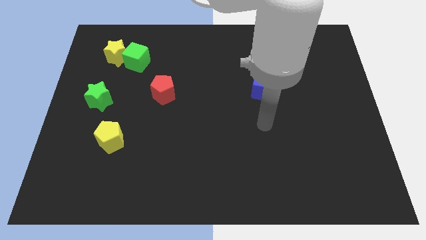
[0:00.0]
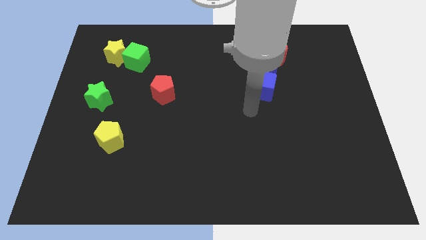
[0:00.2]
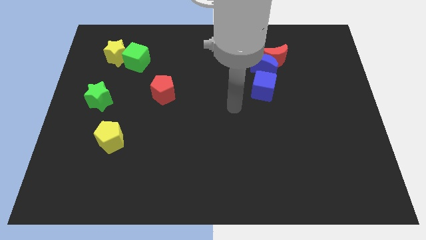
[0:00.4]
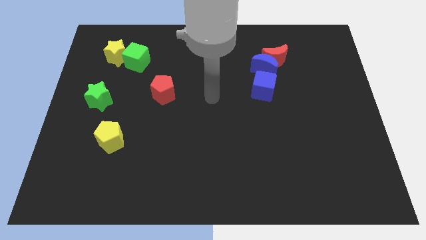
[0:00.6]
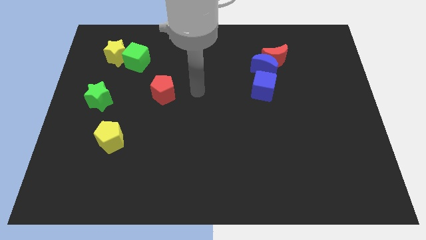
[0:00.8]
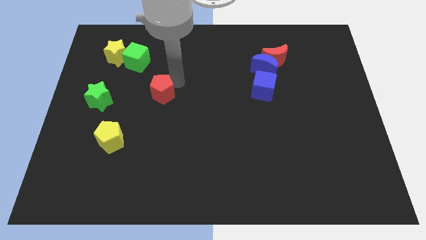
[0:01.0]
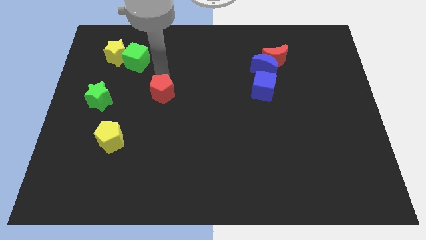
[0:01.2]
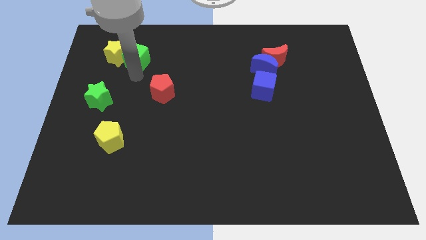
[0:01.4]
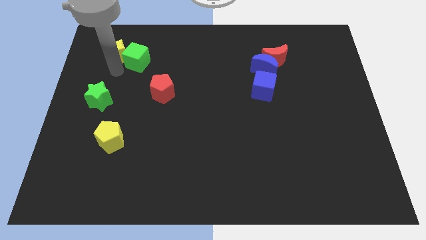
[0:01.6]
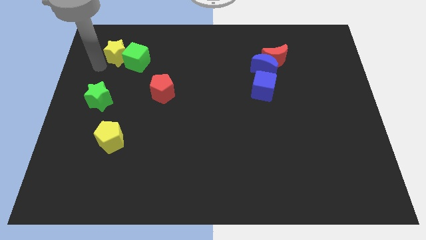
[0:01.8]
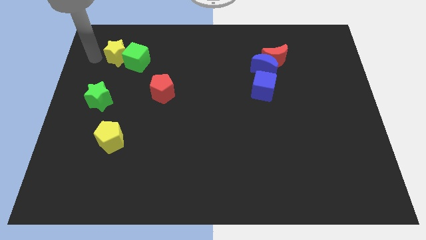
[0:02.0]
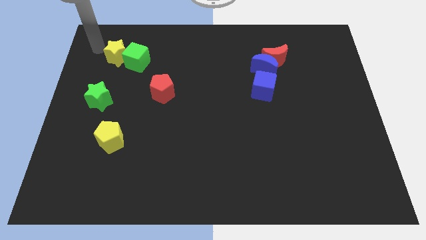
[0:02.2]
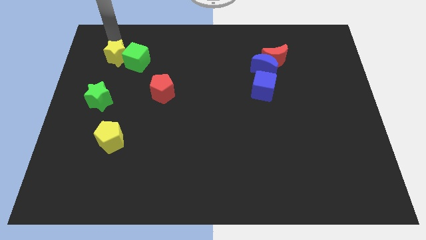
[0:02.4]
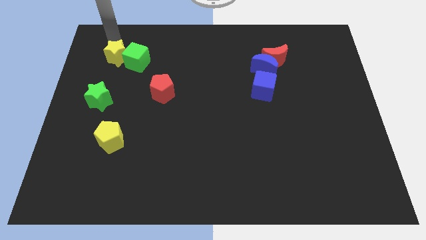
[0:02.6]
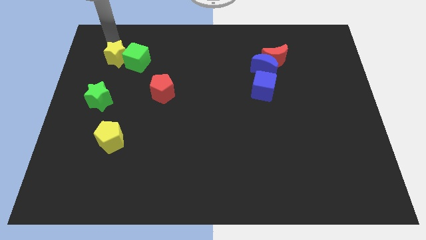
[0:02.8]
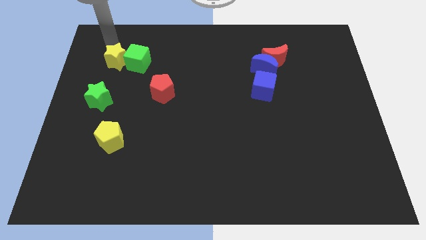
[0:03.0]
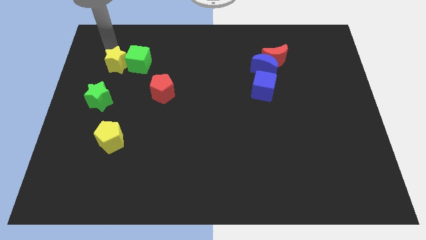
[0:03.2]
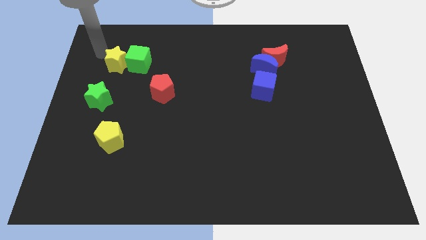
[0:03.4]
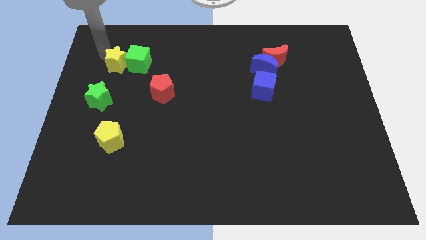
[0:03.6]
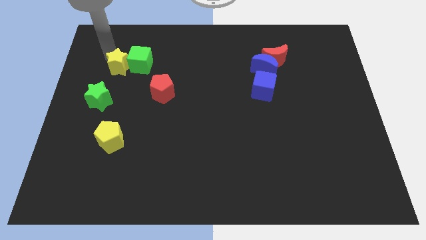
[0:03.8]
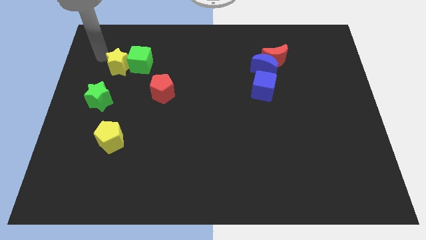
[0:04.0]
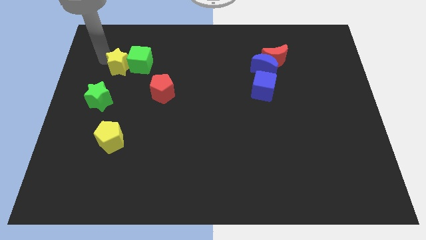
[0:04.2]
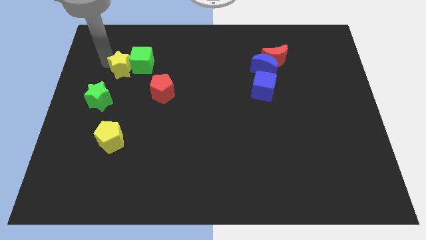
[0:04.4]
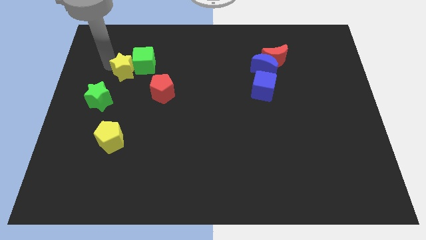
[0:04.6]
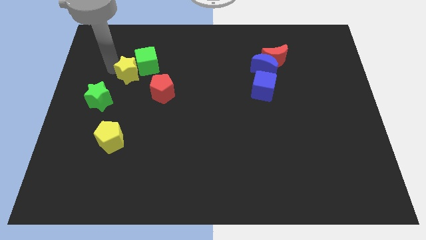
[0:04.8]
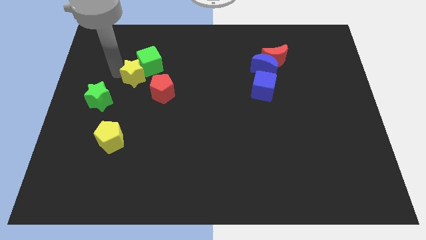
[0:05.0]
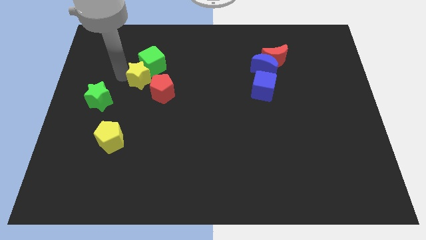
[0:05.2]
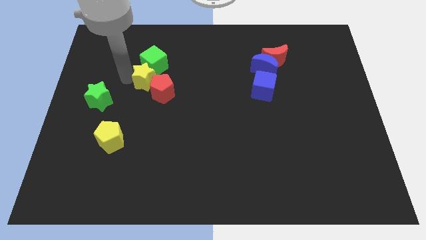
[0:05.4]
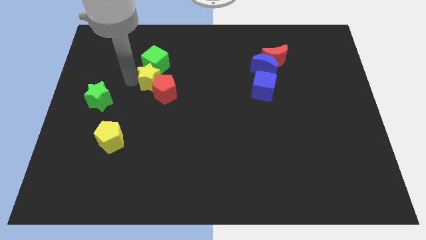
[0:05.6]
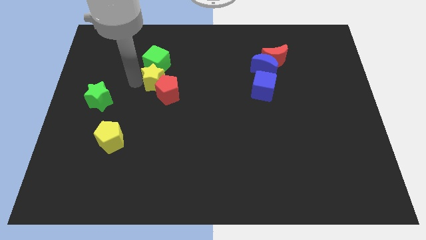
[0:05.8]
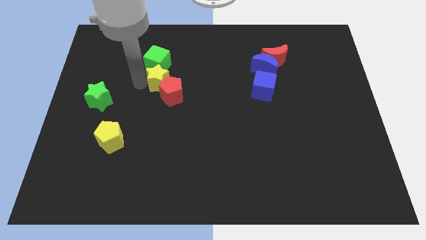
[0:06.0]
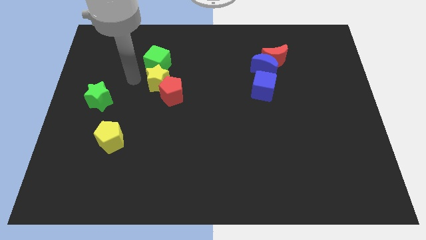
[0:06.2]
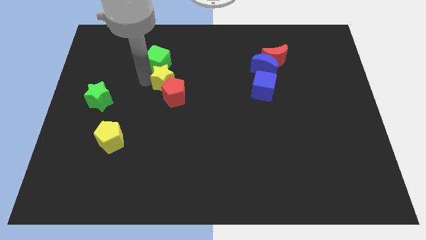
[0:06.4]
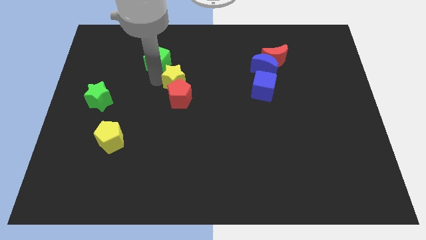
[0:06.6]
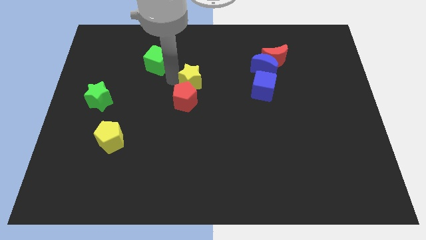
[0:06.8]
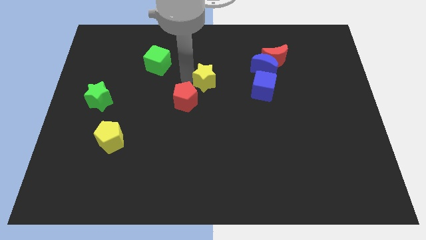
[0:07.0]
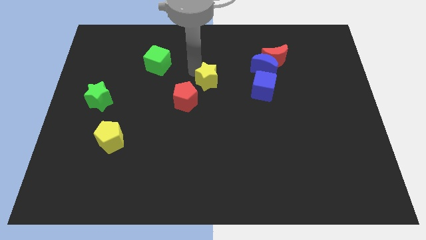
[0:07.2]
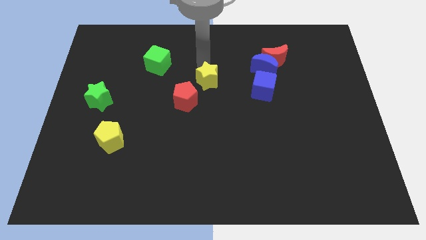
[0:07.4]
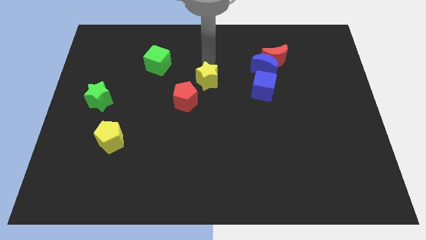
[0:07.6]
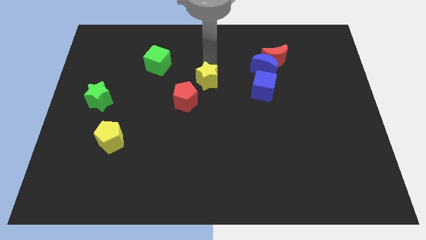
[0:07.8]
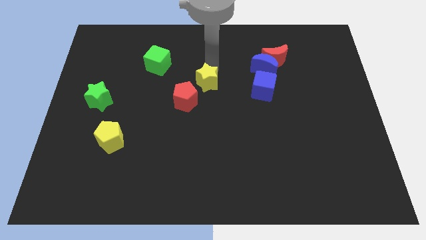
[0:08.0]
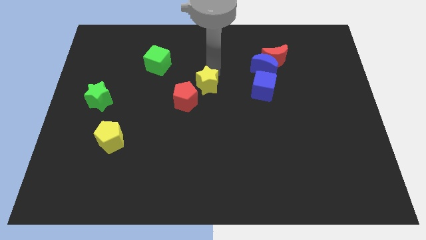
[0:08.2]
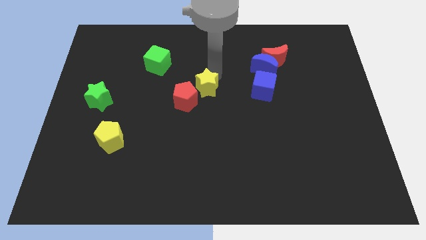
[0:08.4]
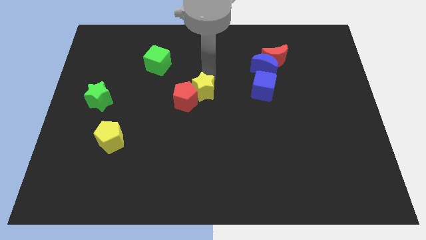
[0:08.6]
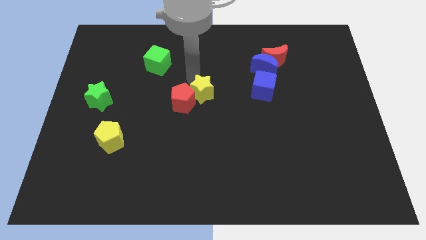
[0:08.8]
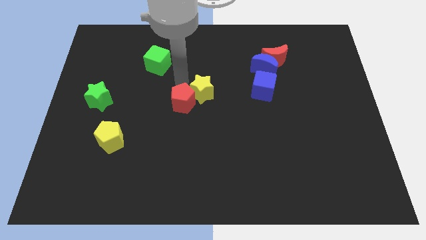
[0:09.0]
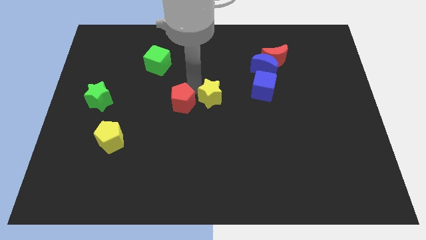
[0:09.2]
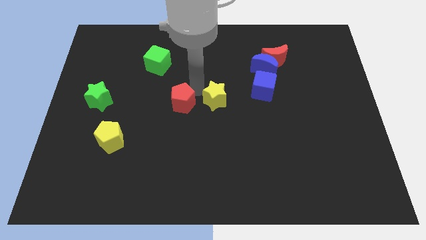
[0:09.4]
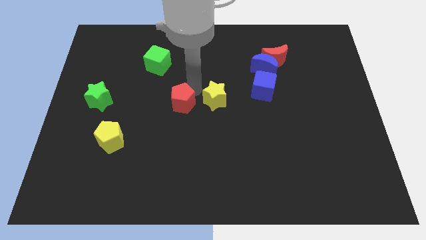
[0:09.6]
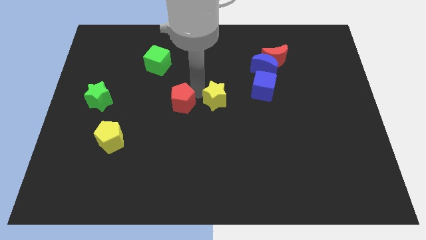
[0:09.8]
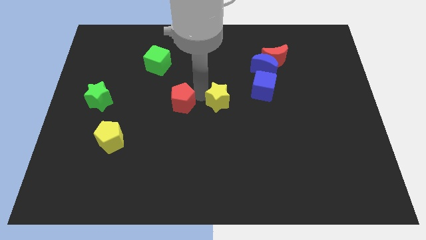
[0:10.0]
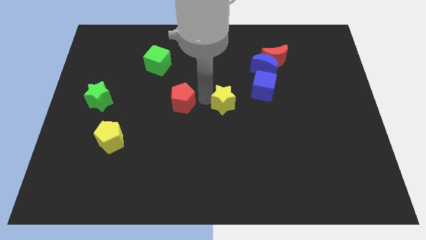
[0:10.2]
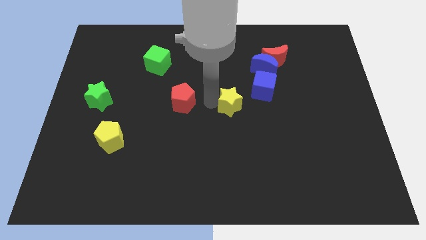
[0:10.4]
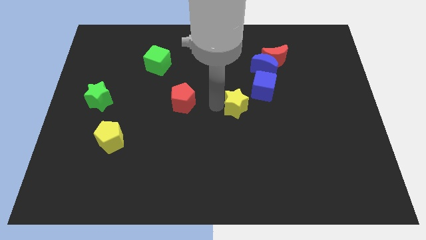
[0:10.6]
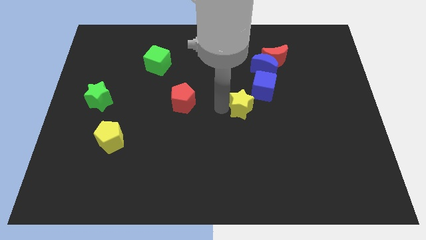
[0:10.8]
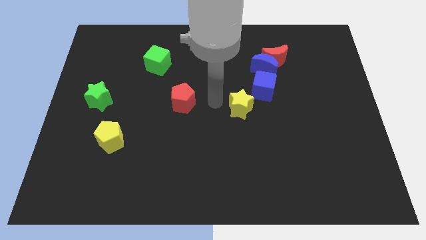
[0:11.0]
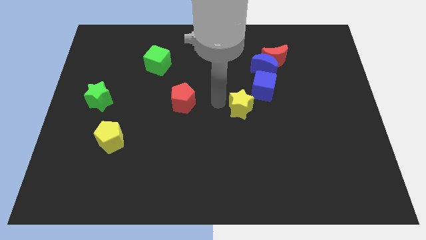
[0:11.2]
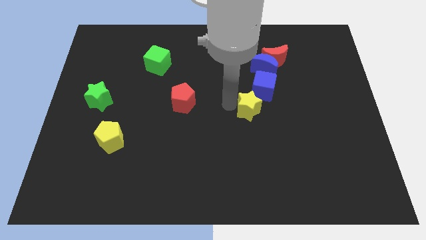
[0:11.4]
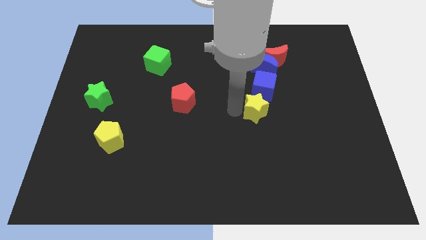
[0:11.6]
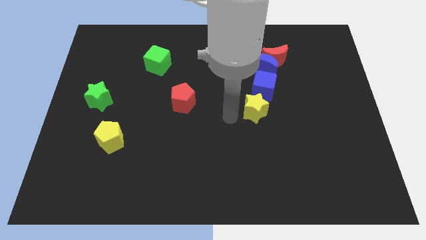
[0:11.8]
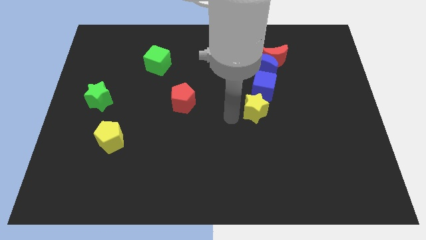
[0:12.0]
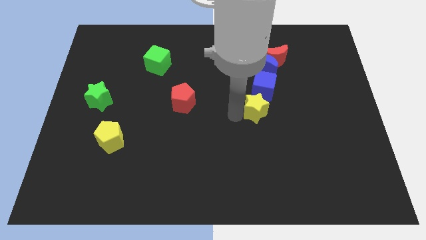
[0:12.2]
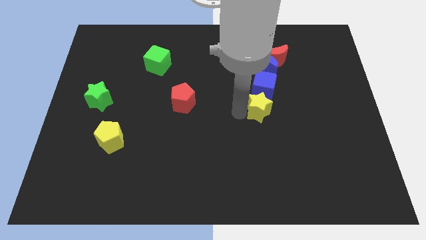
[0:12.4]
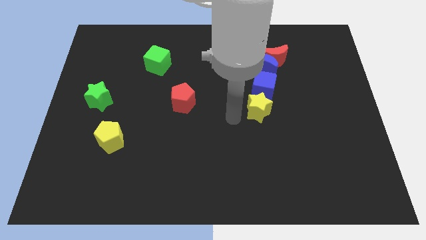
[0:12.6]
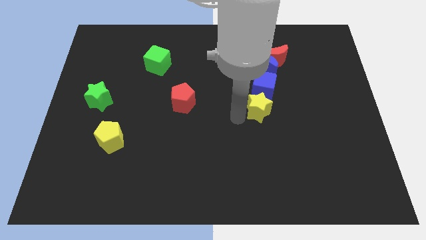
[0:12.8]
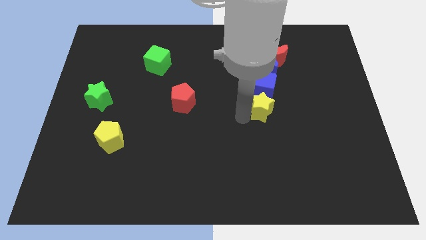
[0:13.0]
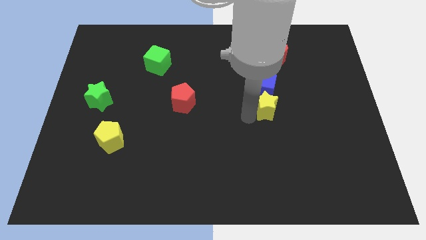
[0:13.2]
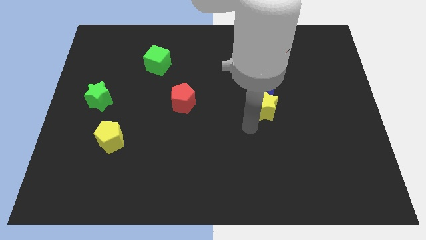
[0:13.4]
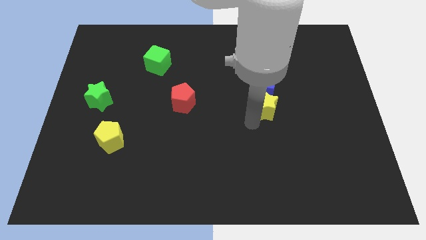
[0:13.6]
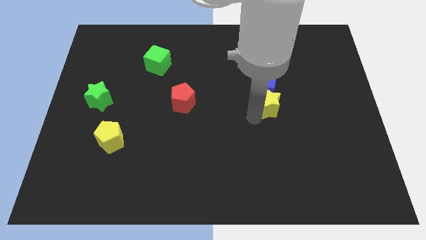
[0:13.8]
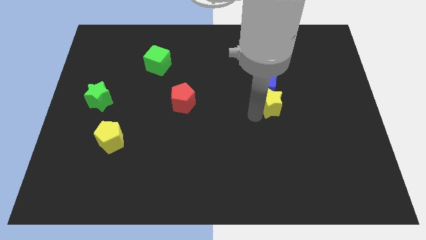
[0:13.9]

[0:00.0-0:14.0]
slide the yellow star to the bottom side of the red moon
